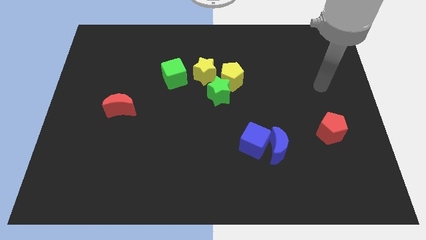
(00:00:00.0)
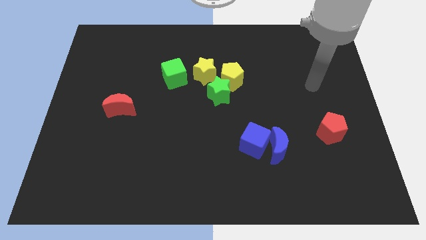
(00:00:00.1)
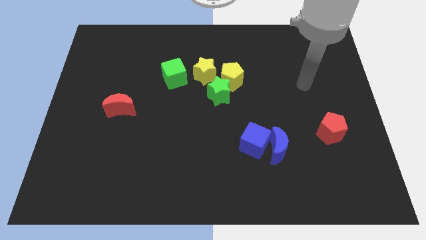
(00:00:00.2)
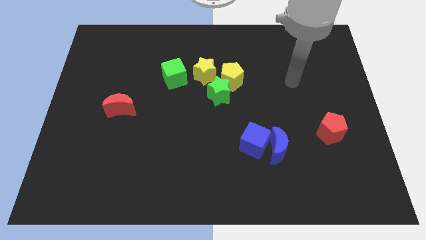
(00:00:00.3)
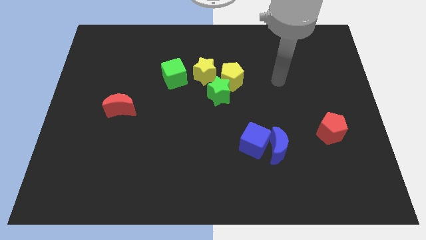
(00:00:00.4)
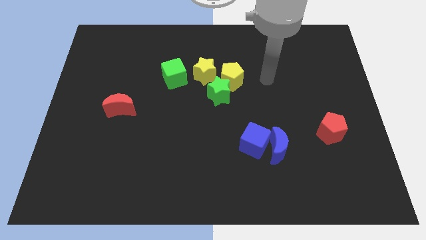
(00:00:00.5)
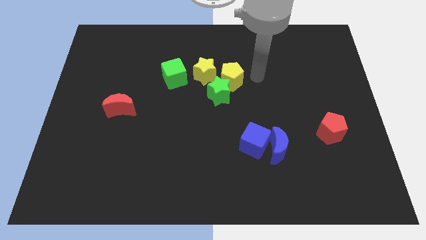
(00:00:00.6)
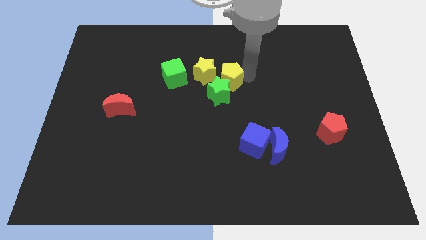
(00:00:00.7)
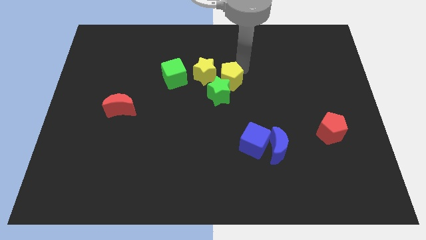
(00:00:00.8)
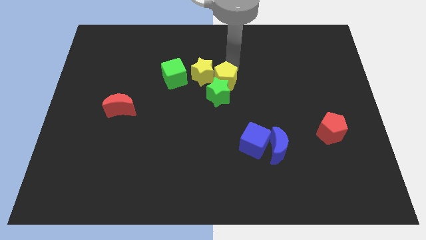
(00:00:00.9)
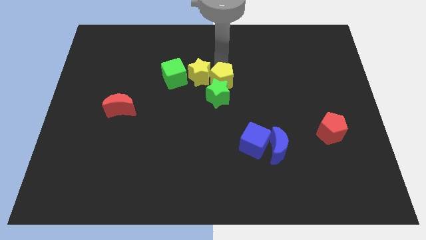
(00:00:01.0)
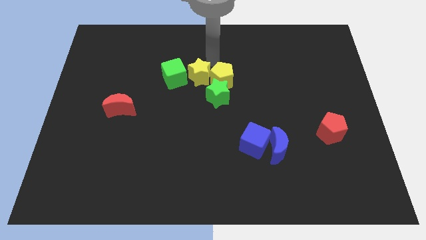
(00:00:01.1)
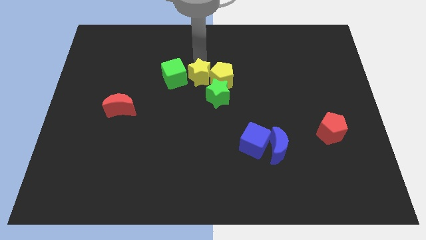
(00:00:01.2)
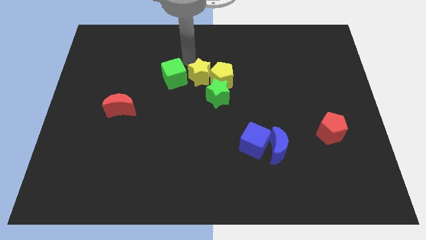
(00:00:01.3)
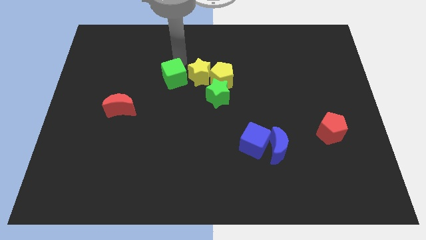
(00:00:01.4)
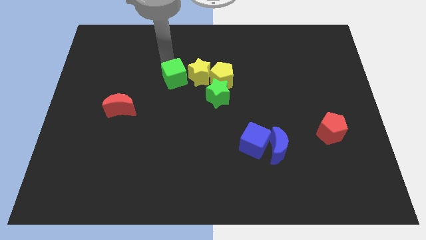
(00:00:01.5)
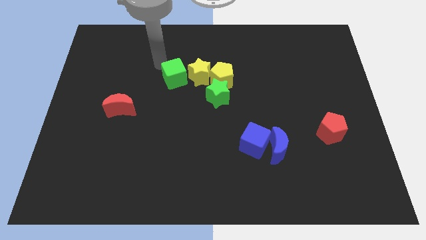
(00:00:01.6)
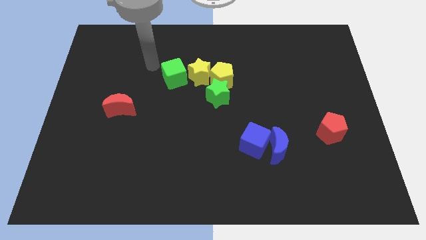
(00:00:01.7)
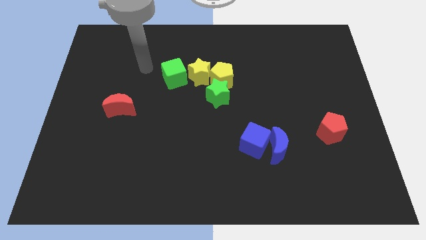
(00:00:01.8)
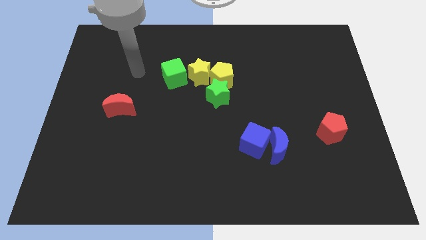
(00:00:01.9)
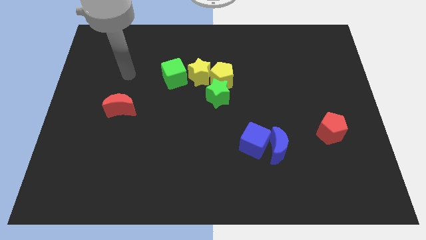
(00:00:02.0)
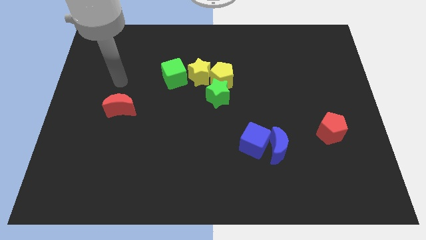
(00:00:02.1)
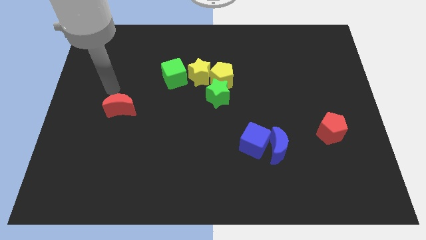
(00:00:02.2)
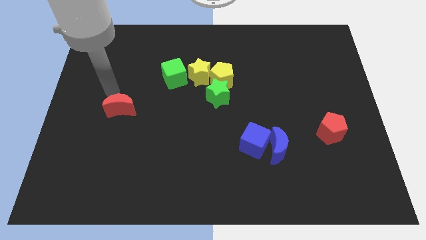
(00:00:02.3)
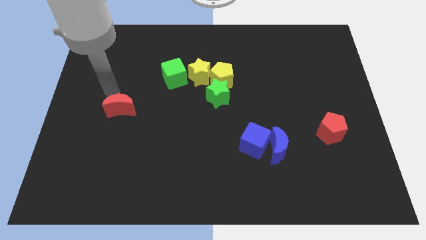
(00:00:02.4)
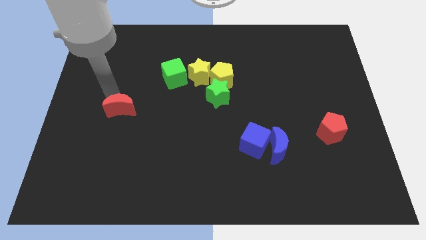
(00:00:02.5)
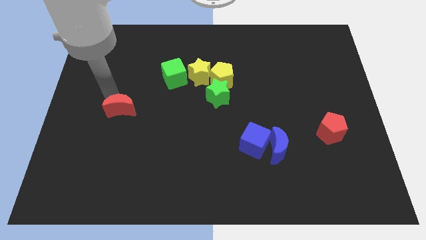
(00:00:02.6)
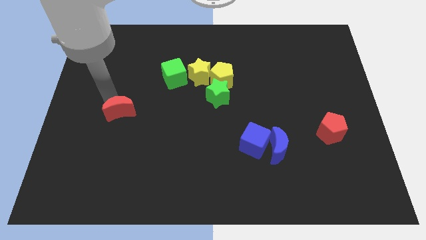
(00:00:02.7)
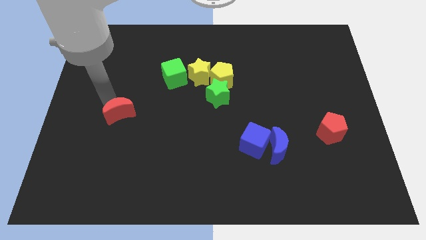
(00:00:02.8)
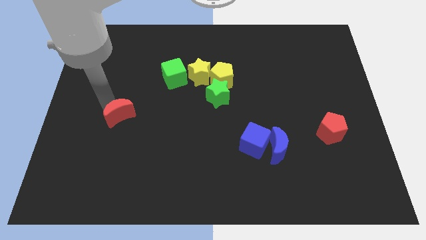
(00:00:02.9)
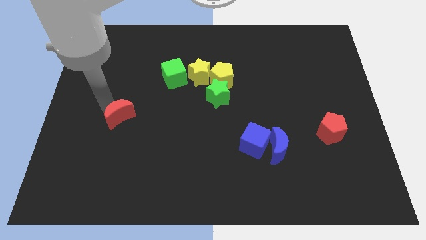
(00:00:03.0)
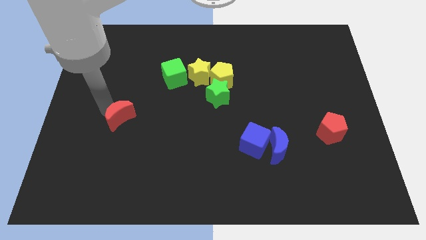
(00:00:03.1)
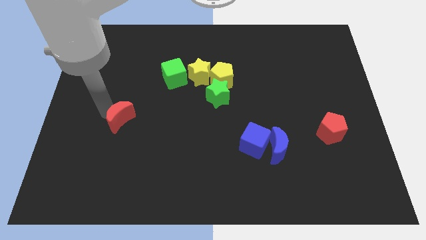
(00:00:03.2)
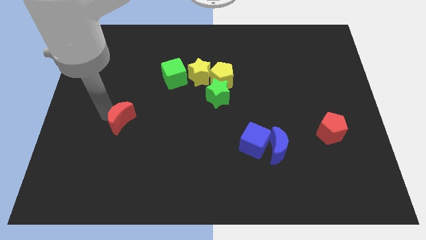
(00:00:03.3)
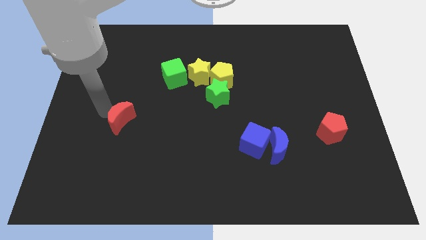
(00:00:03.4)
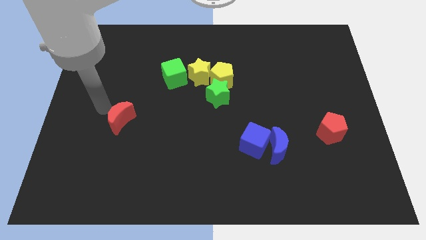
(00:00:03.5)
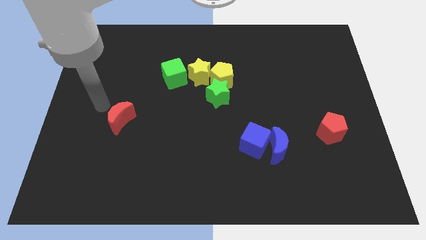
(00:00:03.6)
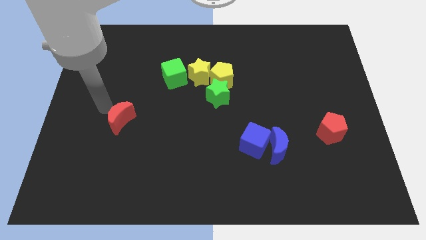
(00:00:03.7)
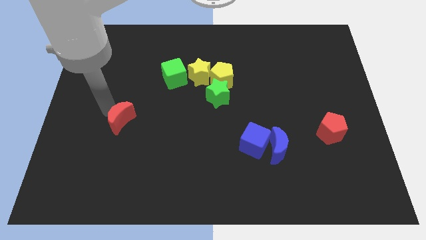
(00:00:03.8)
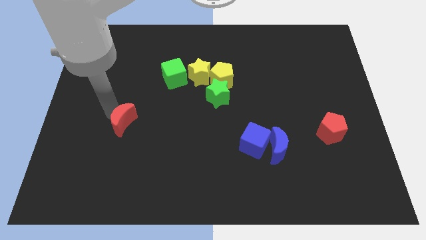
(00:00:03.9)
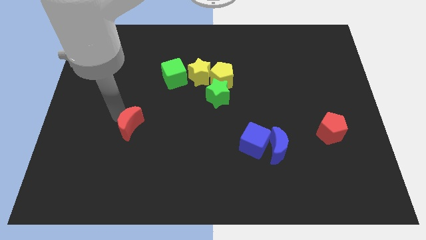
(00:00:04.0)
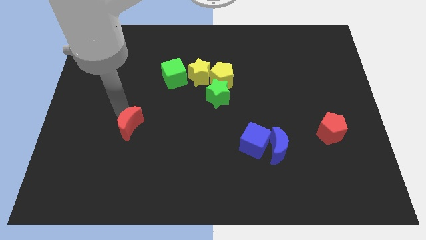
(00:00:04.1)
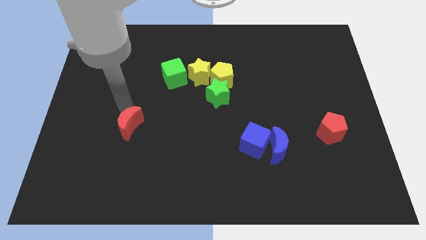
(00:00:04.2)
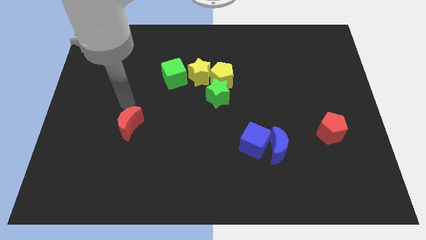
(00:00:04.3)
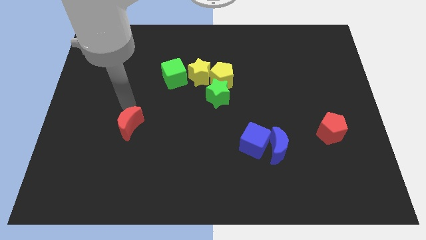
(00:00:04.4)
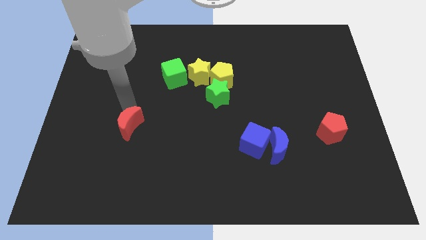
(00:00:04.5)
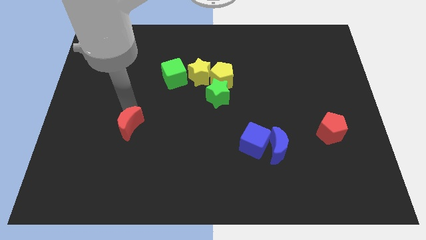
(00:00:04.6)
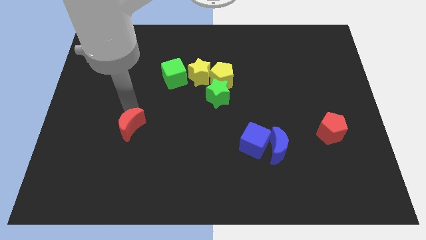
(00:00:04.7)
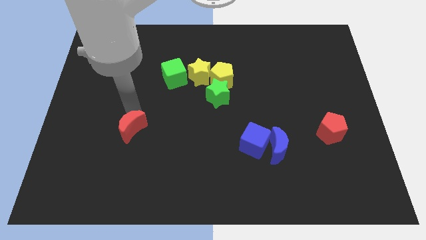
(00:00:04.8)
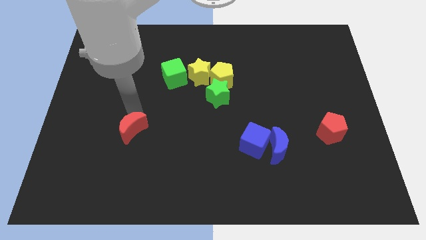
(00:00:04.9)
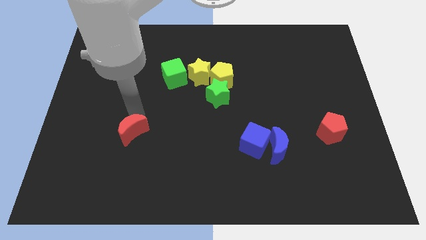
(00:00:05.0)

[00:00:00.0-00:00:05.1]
push the red moon a little bit downwards and then right

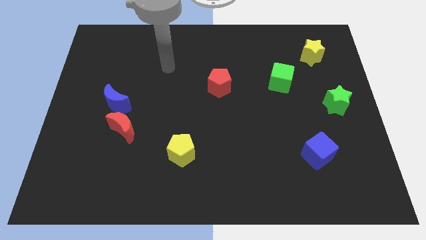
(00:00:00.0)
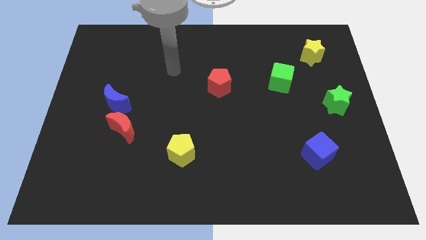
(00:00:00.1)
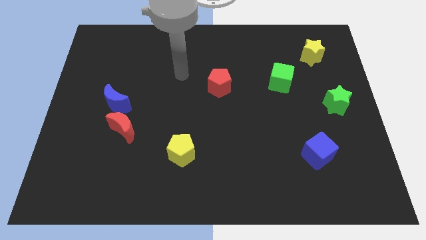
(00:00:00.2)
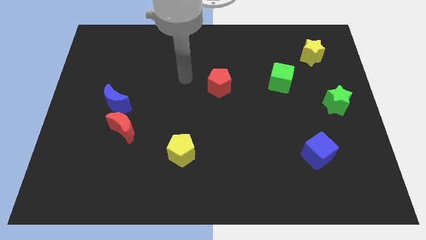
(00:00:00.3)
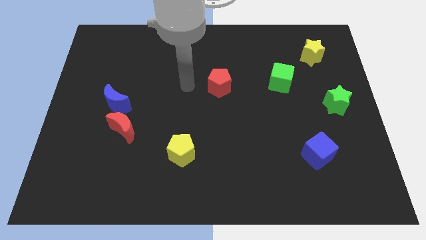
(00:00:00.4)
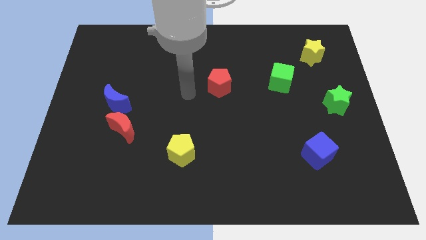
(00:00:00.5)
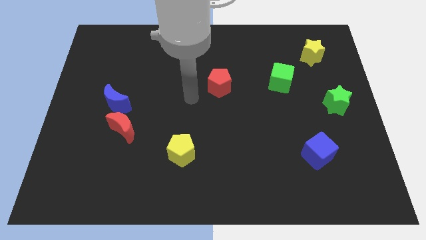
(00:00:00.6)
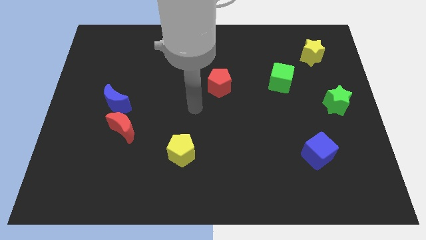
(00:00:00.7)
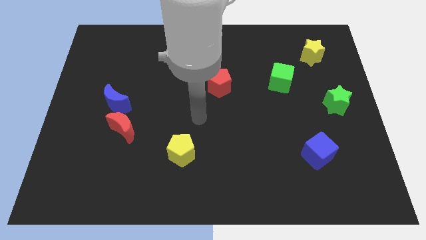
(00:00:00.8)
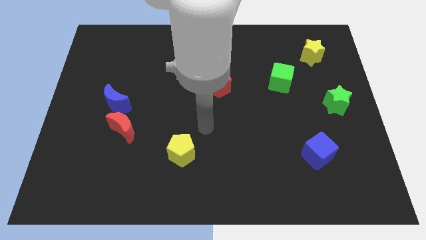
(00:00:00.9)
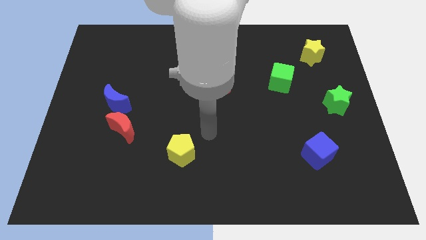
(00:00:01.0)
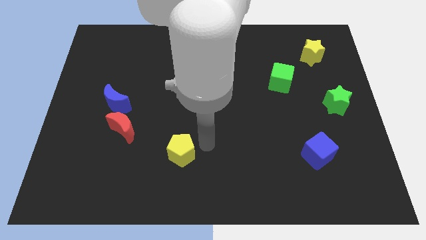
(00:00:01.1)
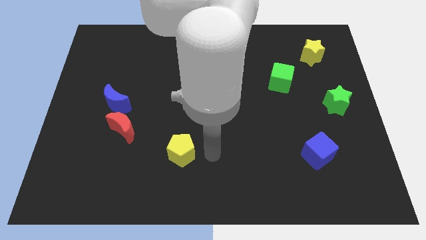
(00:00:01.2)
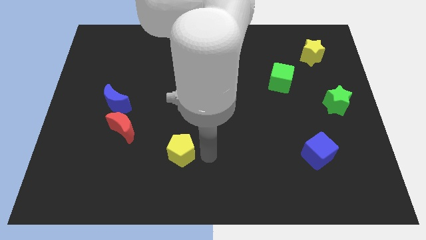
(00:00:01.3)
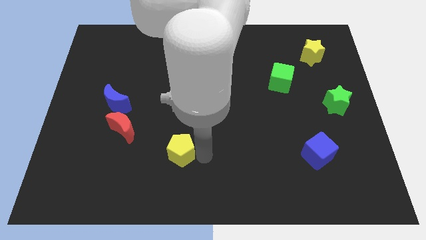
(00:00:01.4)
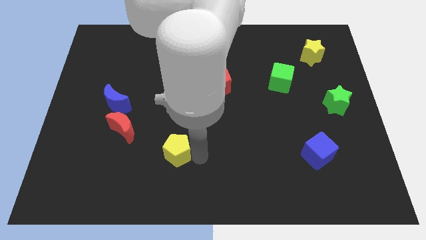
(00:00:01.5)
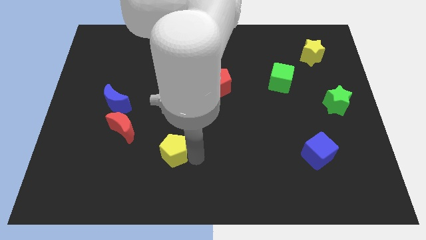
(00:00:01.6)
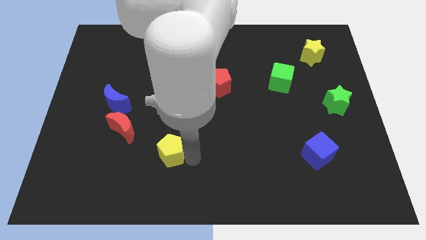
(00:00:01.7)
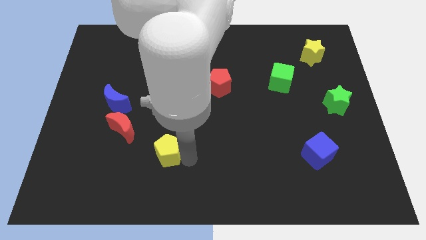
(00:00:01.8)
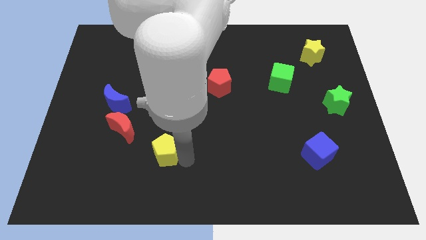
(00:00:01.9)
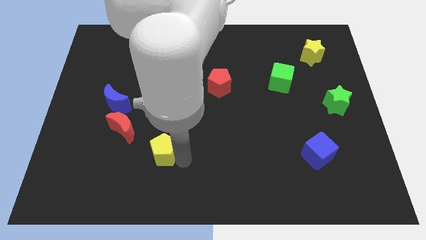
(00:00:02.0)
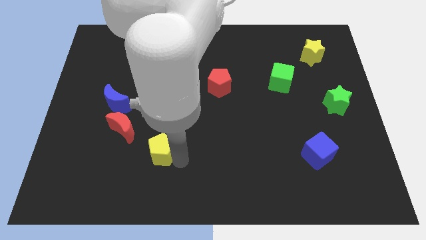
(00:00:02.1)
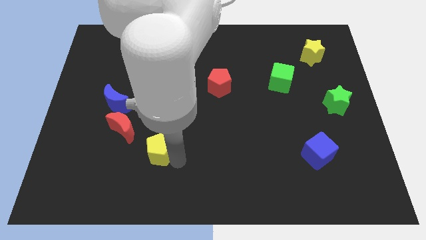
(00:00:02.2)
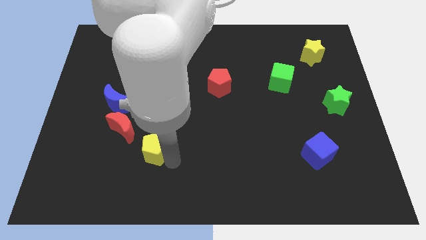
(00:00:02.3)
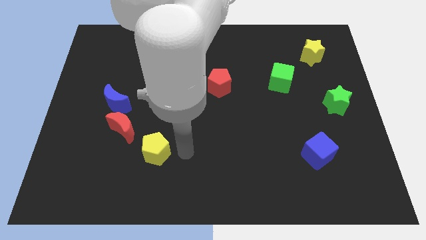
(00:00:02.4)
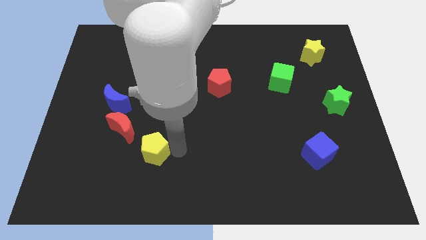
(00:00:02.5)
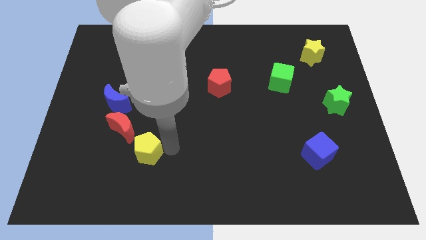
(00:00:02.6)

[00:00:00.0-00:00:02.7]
push the yellow pentagon to the left a little
